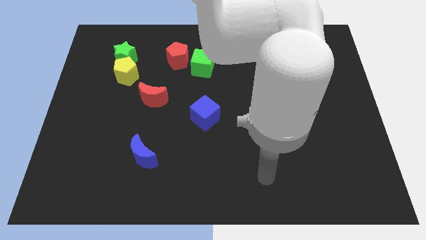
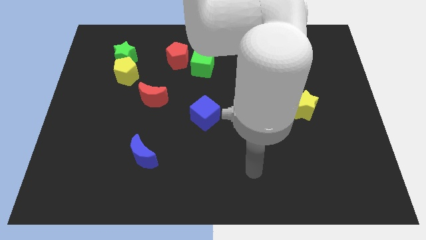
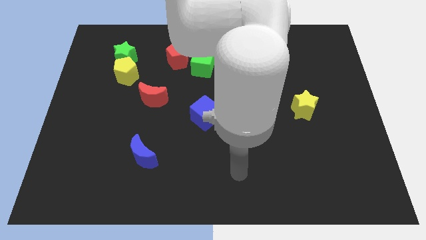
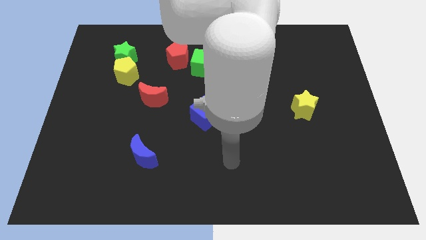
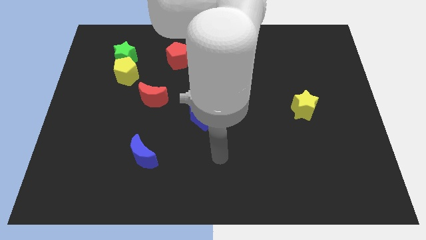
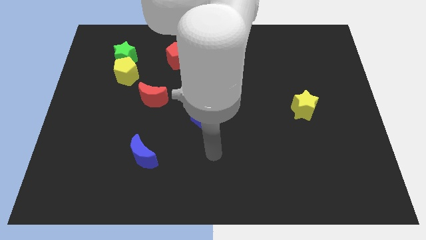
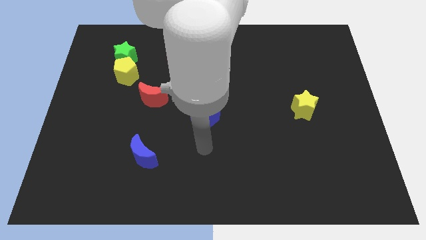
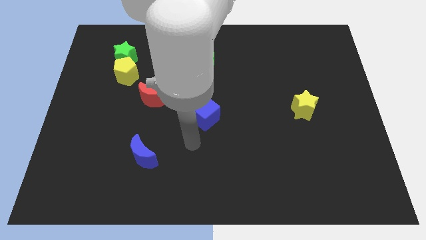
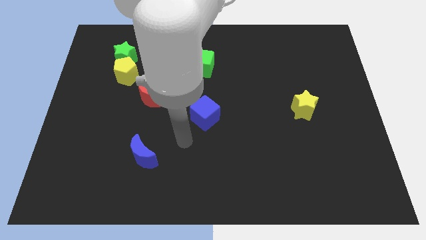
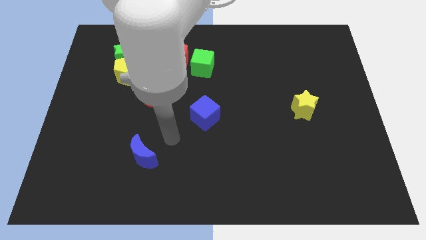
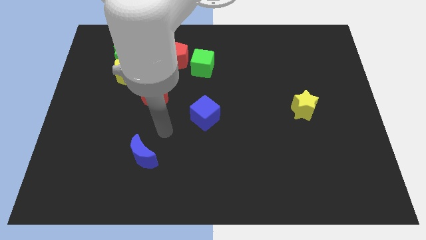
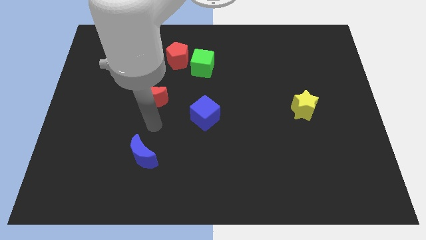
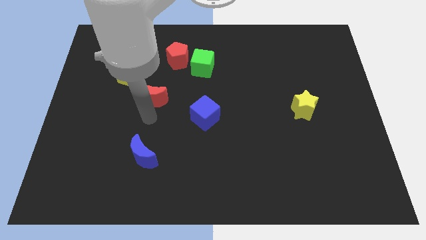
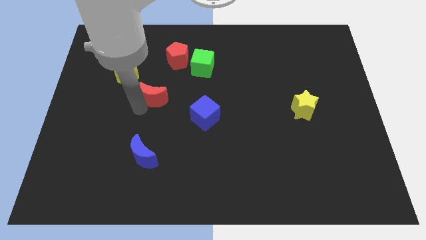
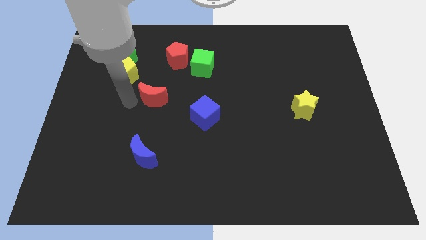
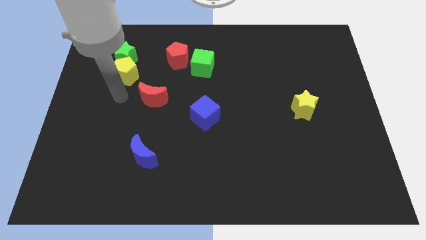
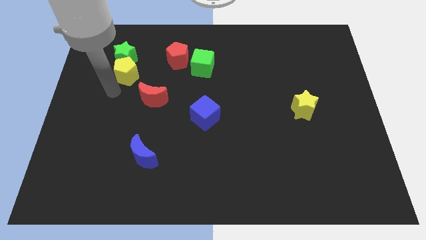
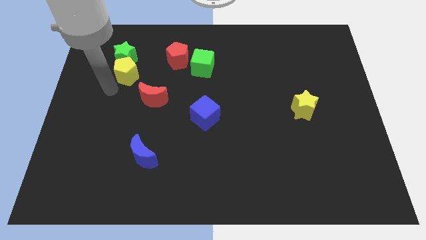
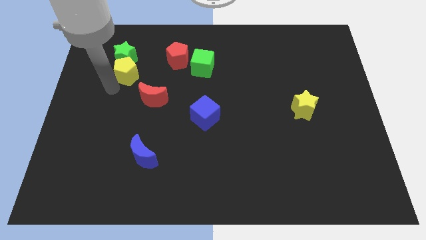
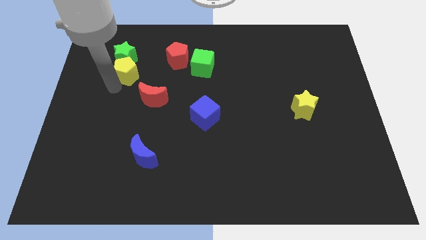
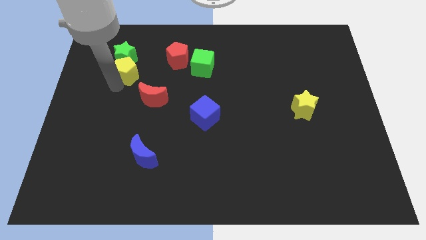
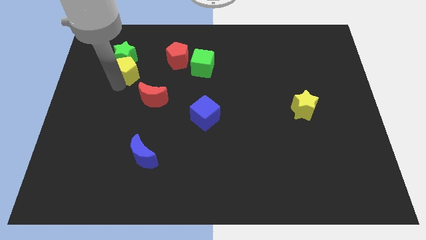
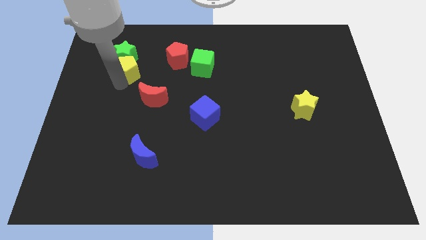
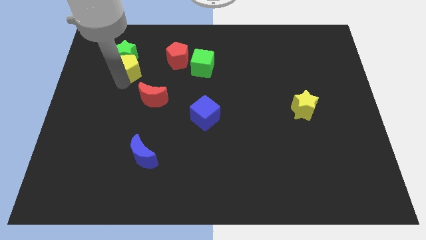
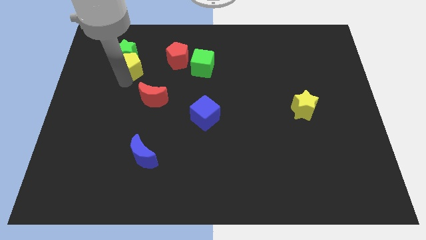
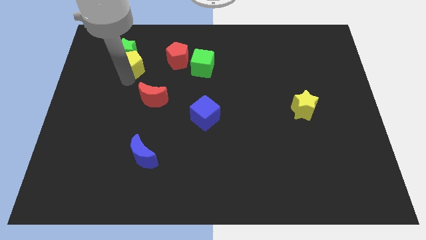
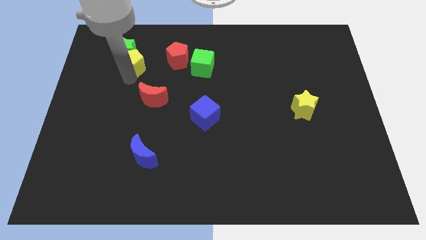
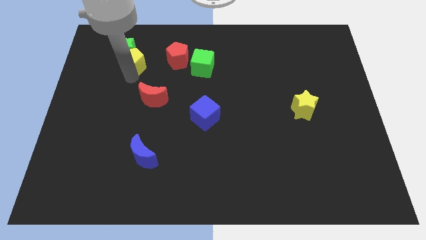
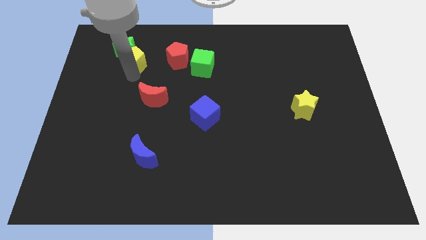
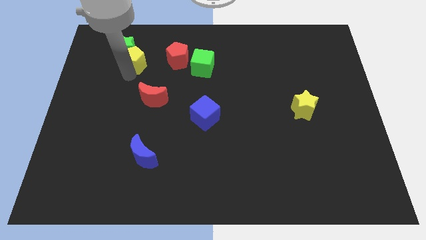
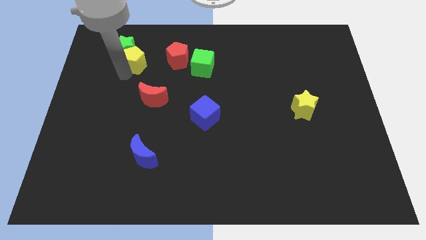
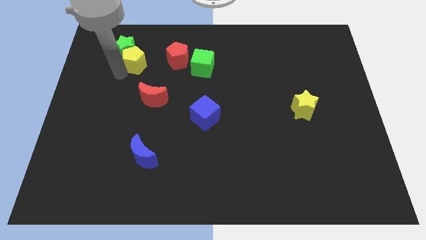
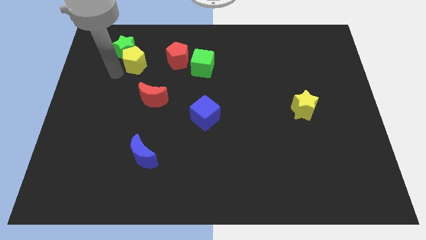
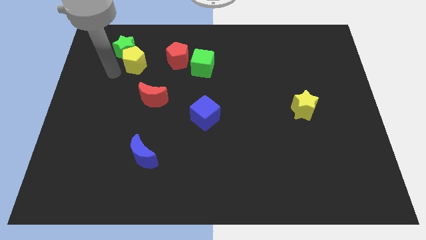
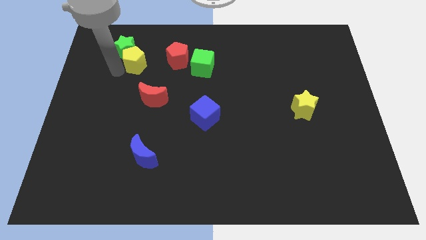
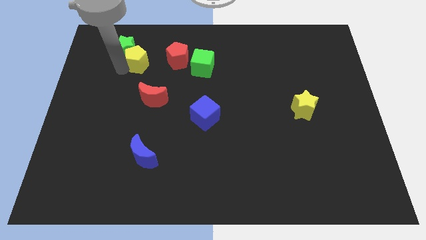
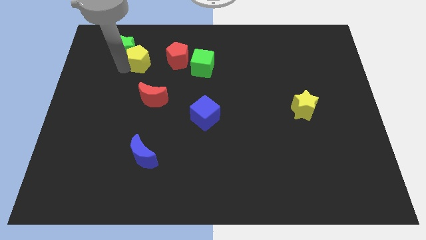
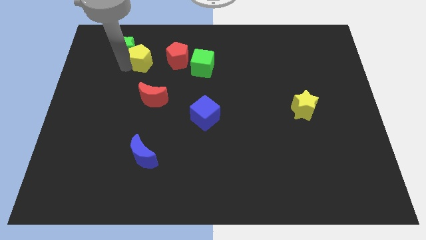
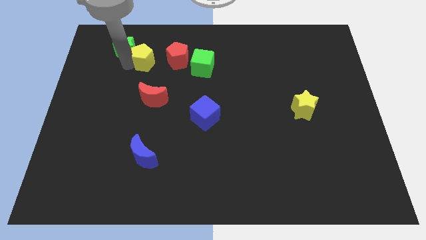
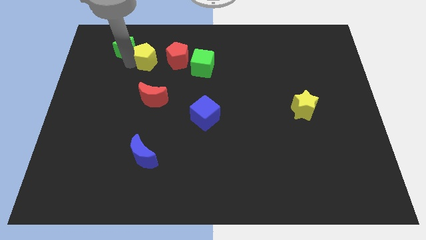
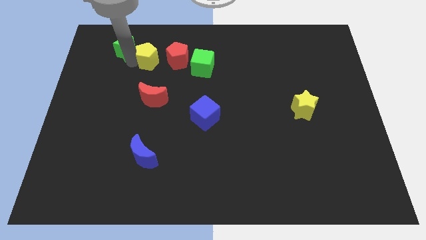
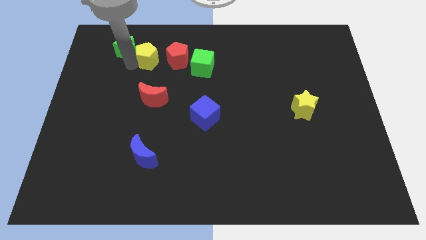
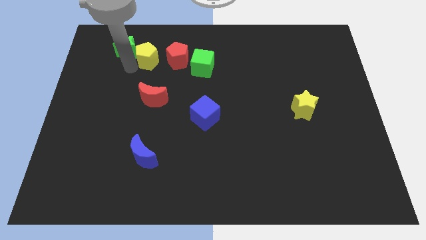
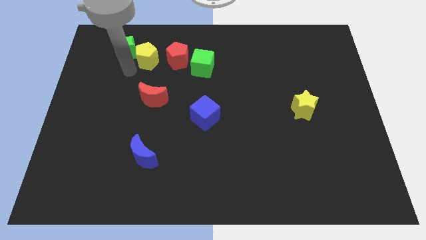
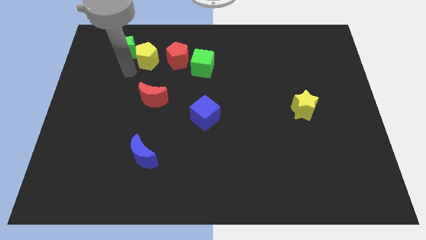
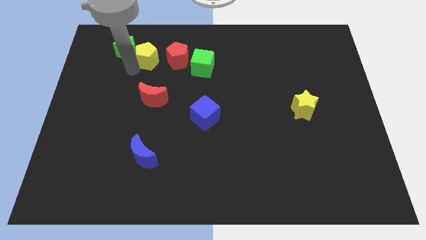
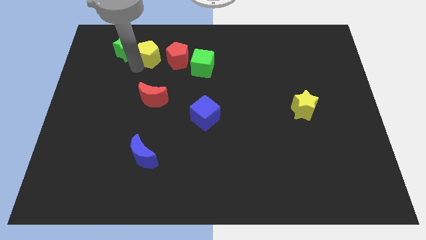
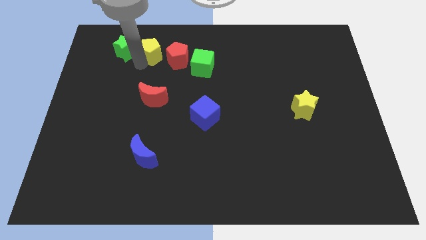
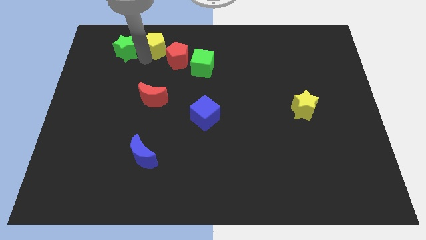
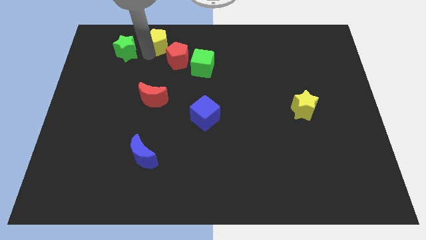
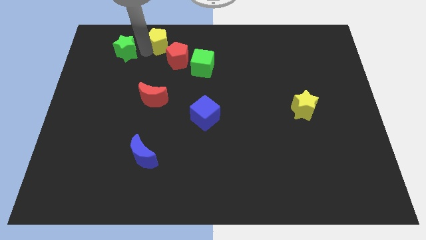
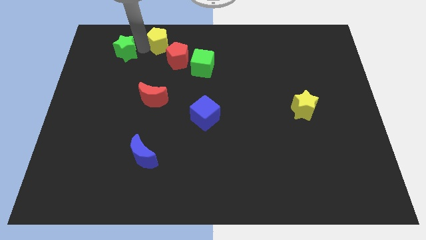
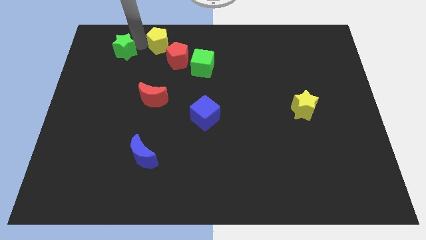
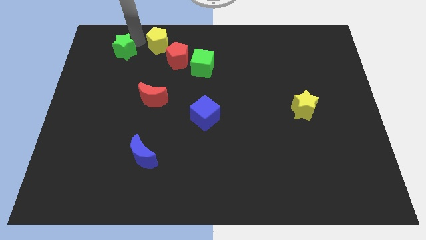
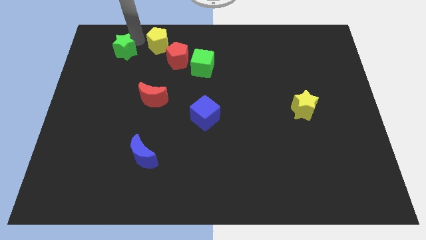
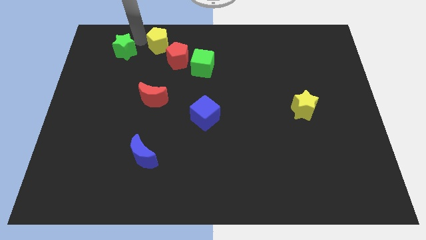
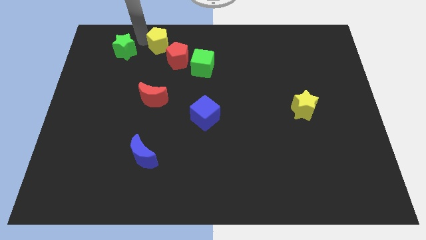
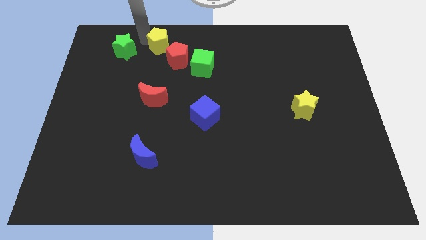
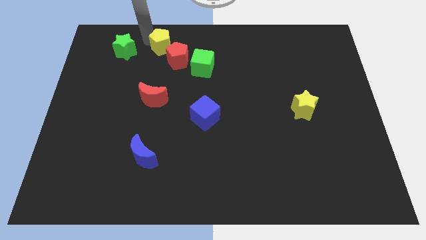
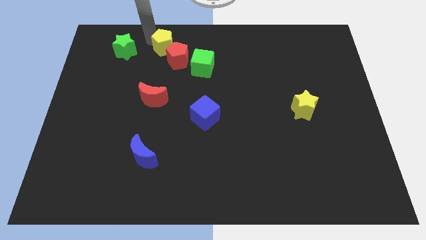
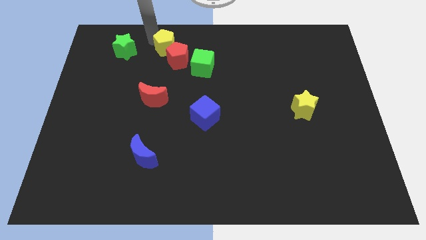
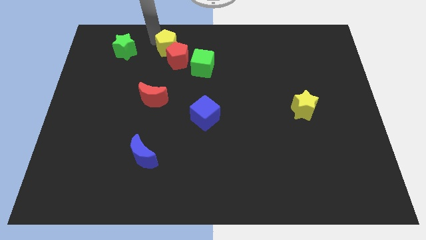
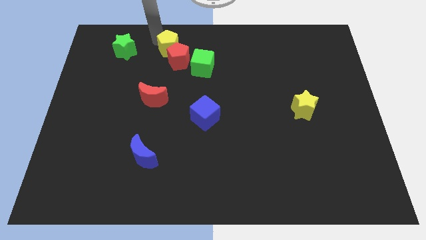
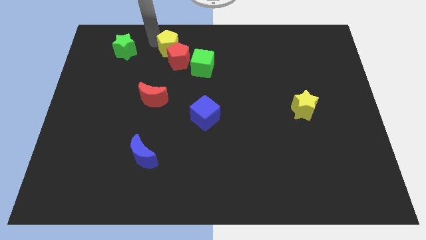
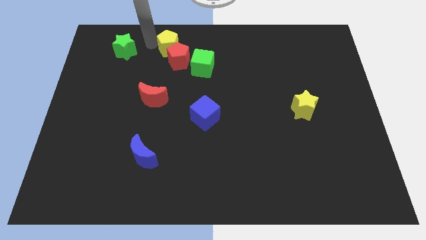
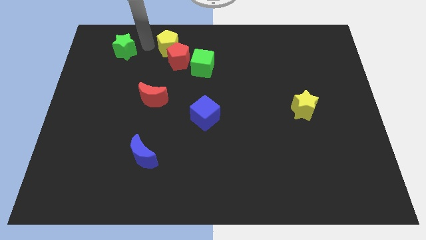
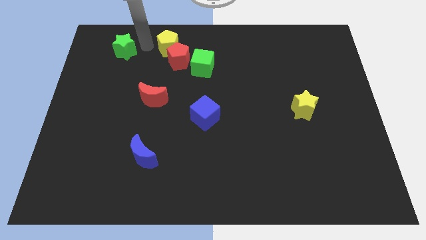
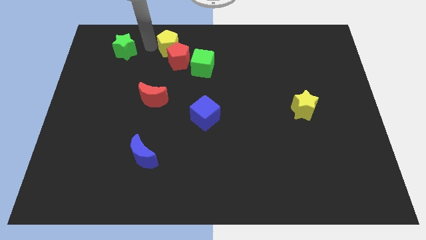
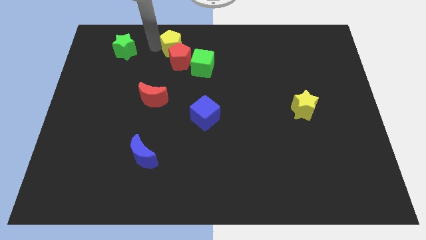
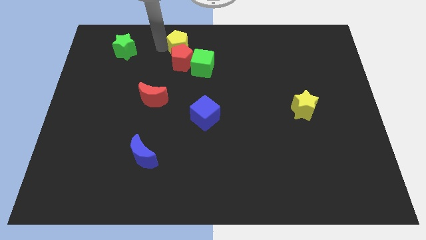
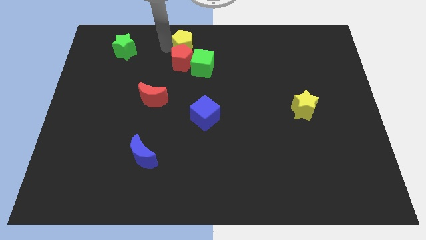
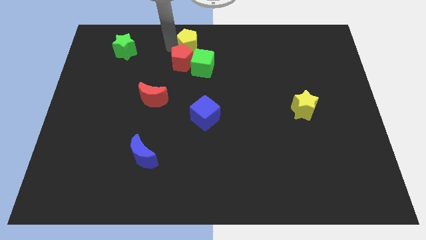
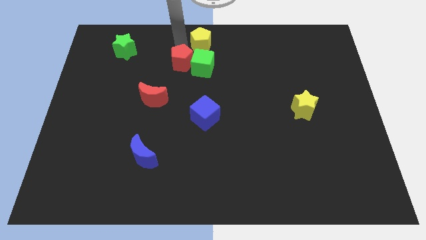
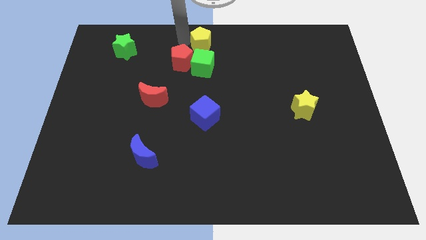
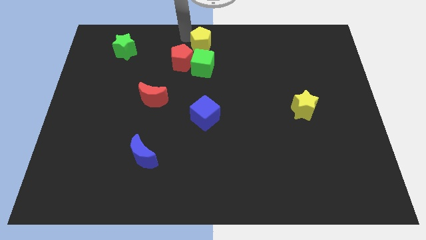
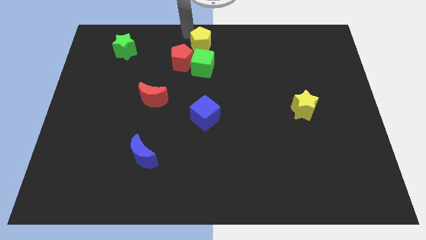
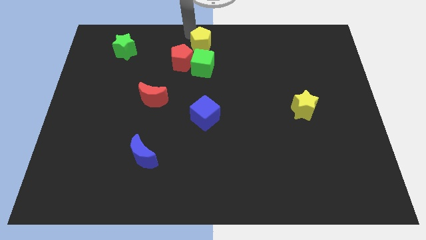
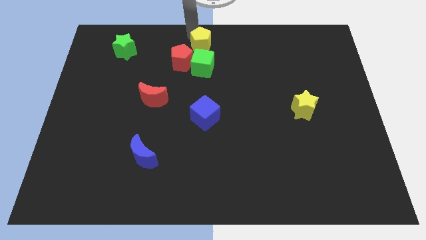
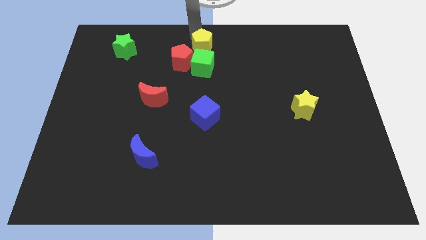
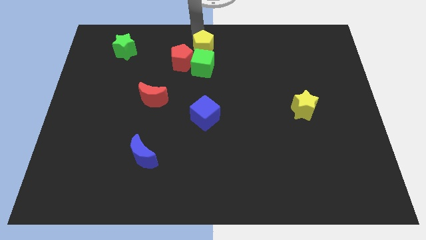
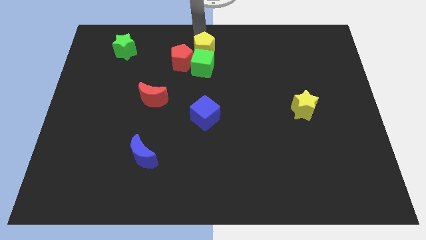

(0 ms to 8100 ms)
push the yellow pentagon to the right of the red pentagon
